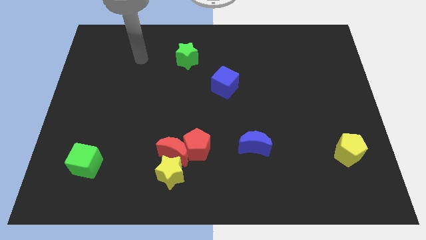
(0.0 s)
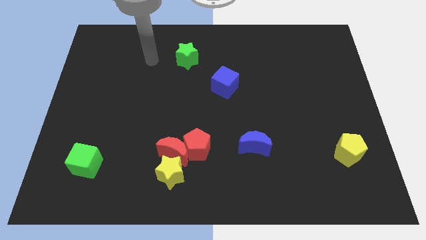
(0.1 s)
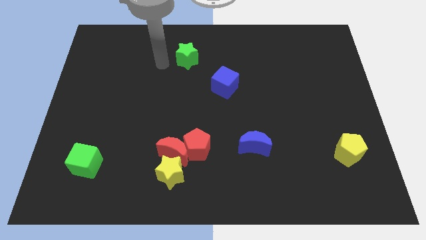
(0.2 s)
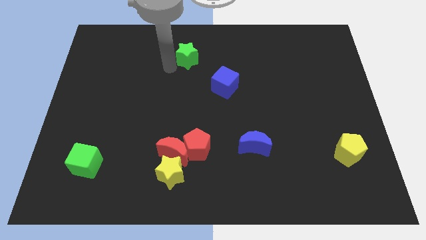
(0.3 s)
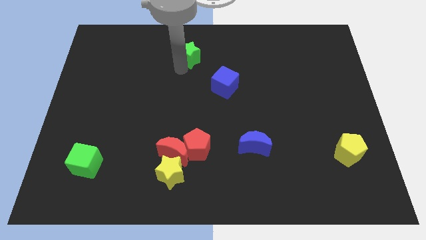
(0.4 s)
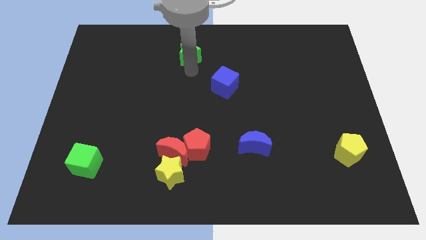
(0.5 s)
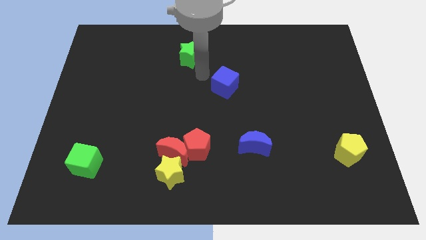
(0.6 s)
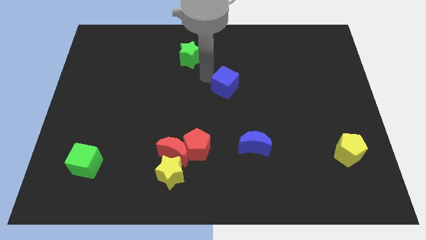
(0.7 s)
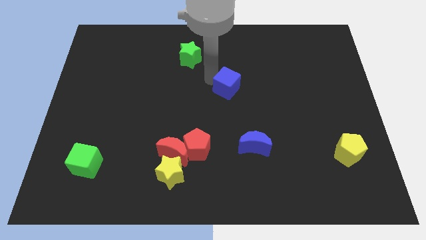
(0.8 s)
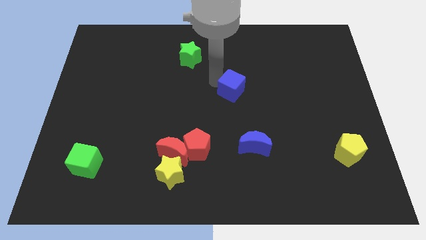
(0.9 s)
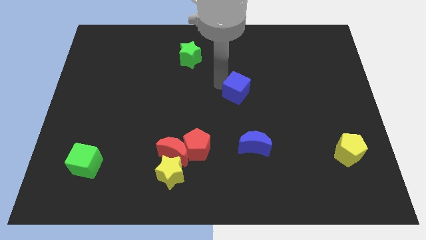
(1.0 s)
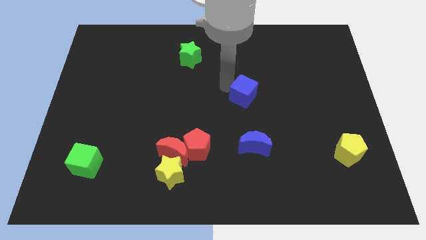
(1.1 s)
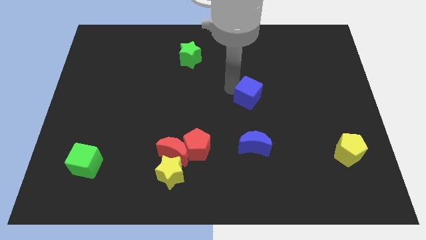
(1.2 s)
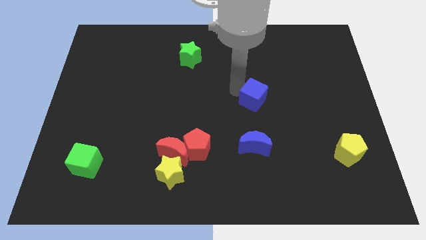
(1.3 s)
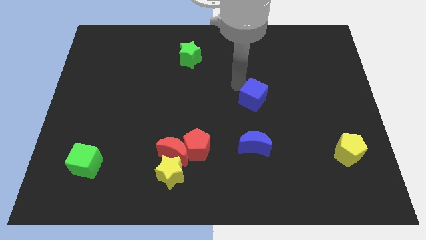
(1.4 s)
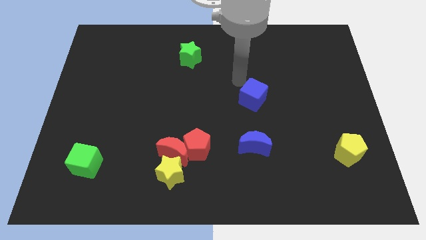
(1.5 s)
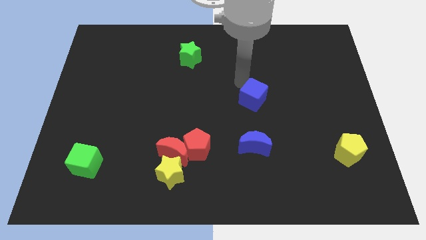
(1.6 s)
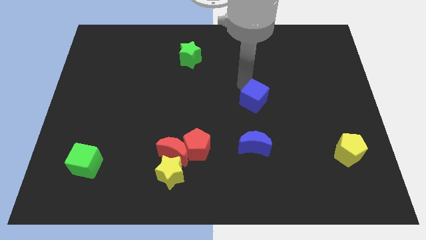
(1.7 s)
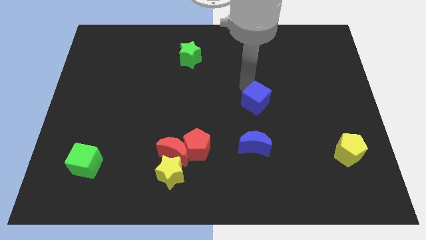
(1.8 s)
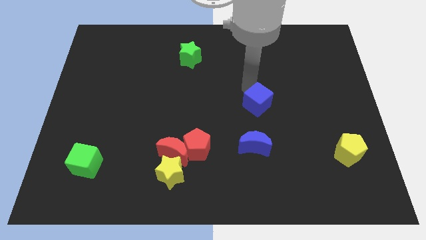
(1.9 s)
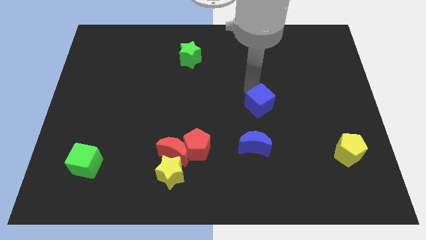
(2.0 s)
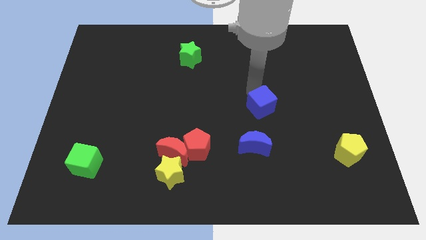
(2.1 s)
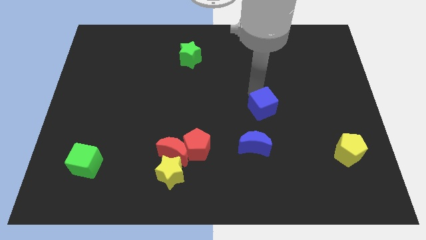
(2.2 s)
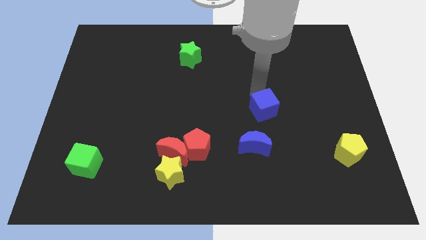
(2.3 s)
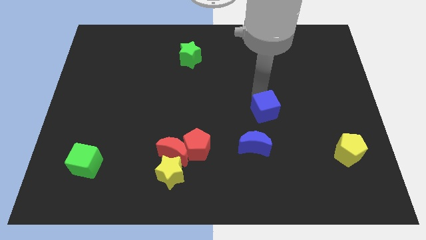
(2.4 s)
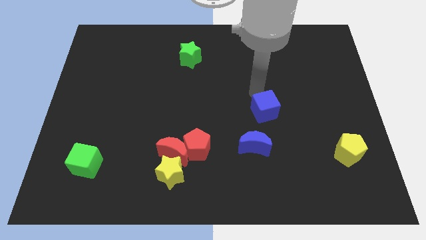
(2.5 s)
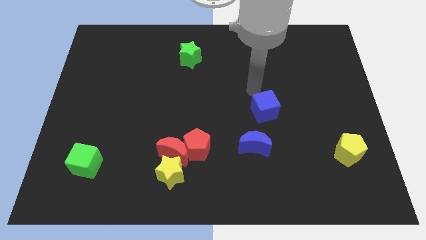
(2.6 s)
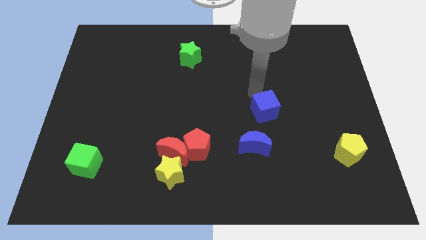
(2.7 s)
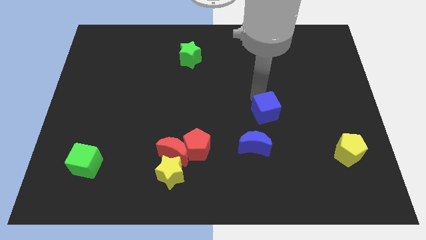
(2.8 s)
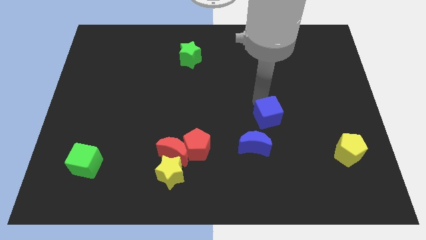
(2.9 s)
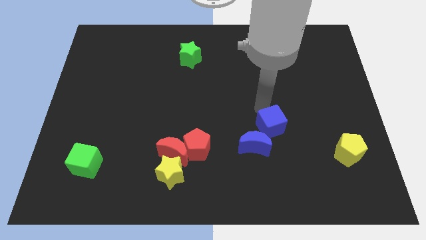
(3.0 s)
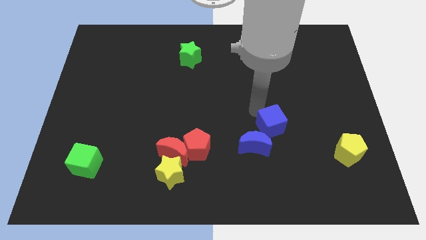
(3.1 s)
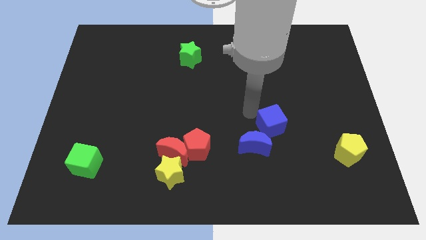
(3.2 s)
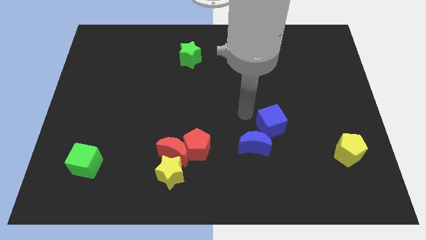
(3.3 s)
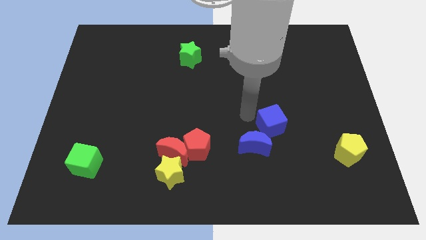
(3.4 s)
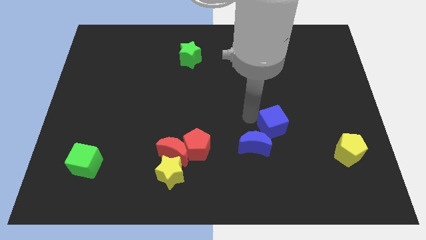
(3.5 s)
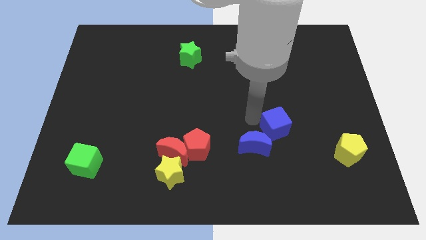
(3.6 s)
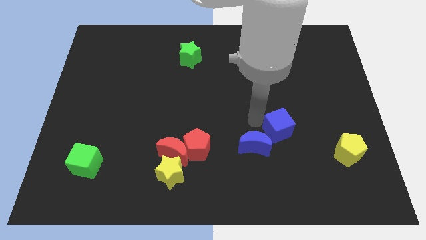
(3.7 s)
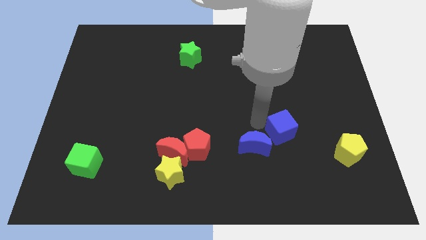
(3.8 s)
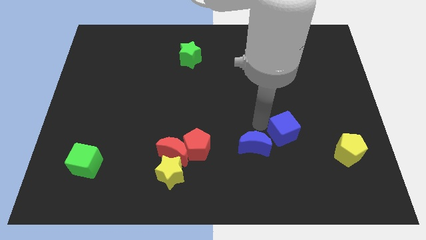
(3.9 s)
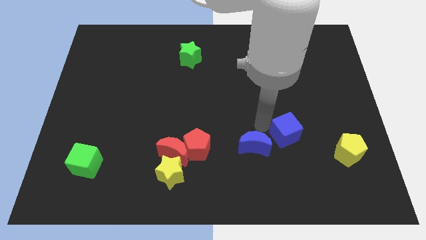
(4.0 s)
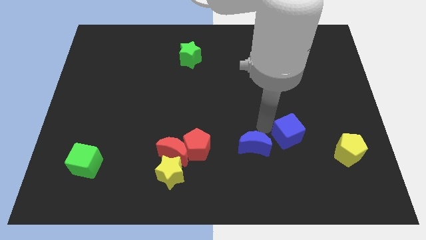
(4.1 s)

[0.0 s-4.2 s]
push the blue cube down and to the right diagonally

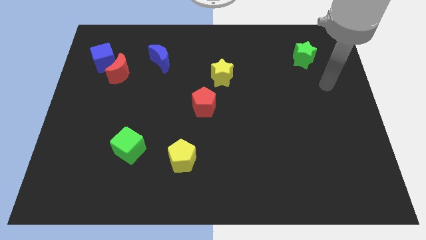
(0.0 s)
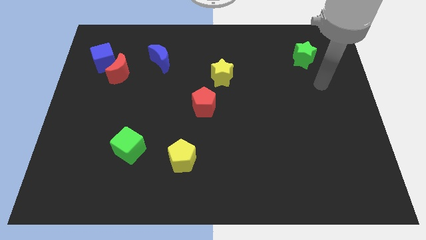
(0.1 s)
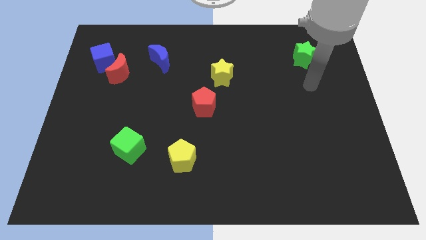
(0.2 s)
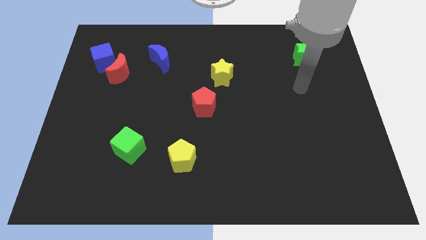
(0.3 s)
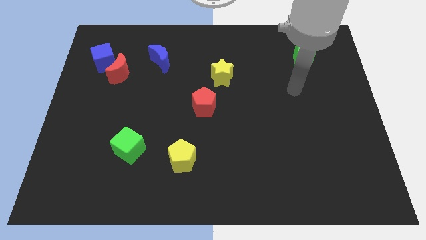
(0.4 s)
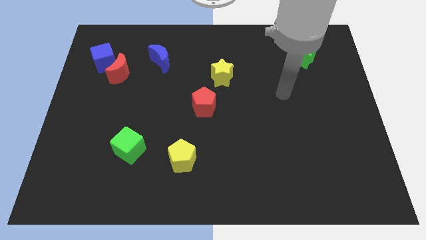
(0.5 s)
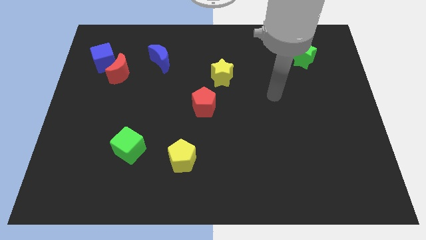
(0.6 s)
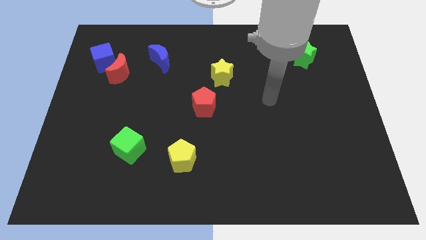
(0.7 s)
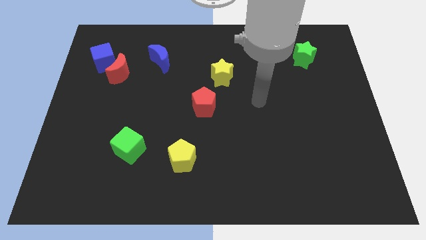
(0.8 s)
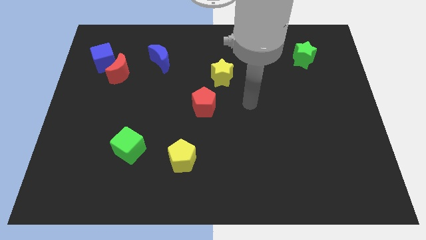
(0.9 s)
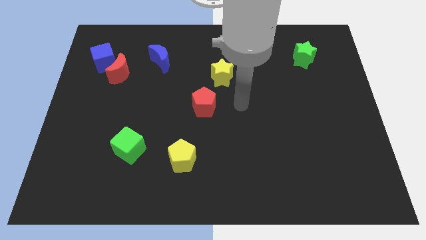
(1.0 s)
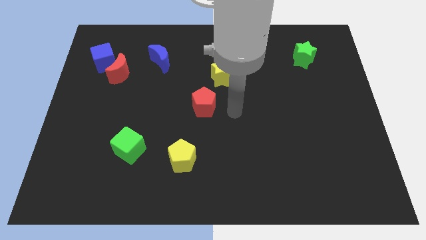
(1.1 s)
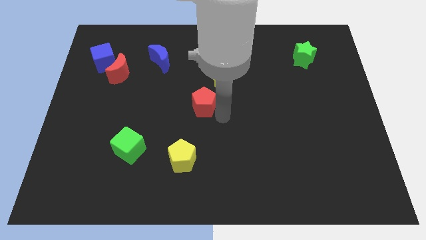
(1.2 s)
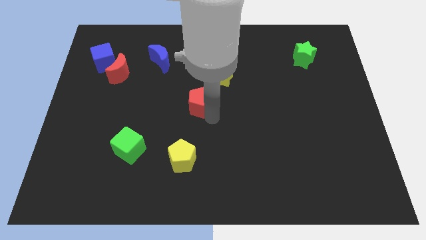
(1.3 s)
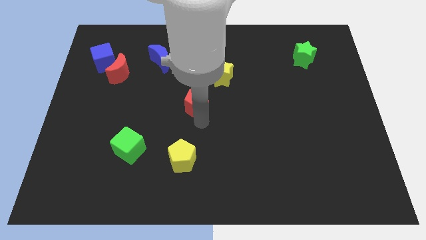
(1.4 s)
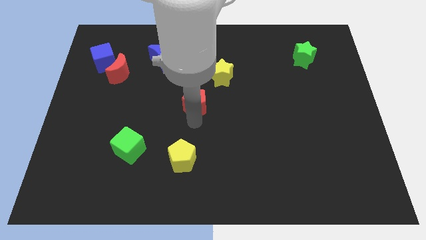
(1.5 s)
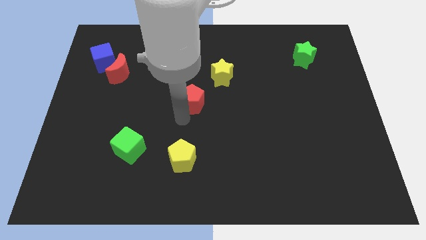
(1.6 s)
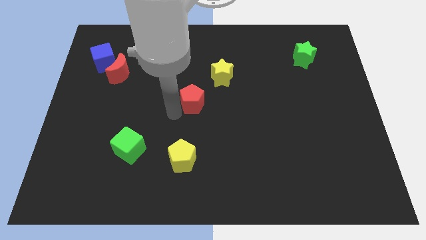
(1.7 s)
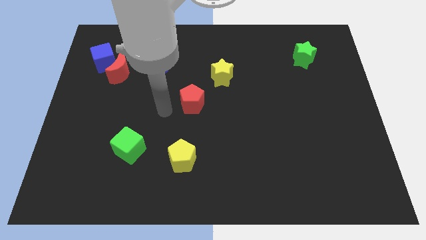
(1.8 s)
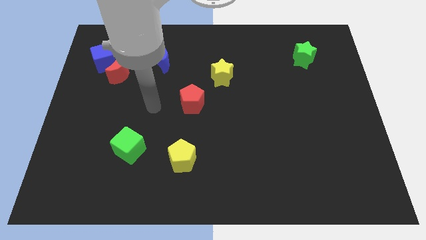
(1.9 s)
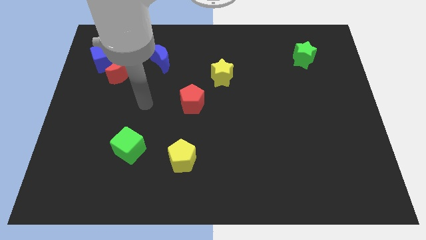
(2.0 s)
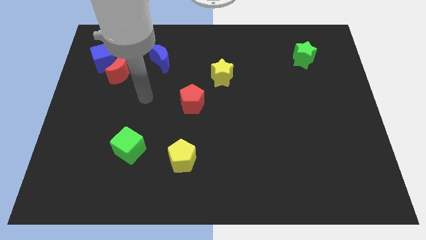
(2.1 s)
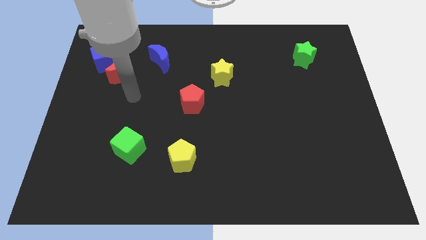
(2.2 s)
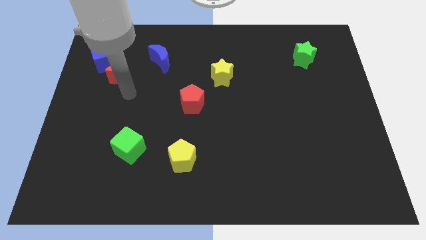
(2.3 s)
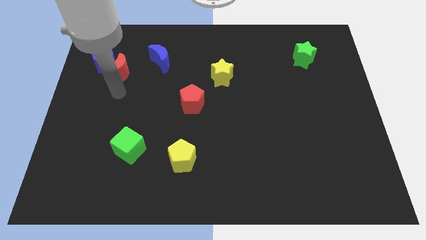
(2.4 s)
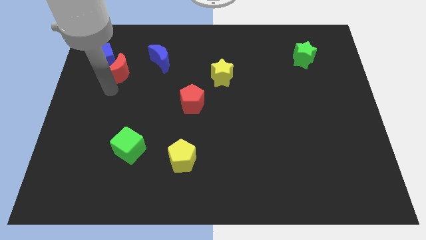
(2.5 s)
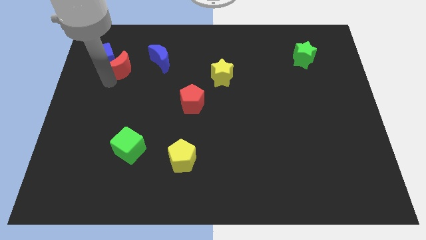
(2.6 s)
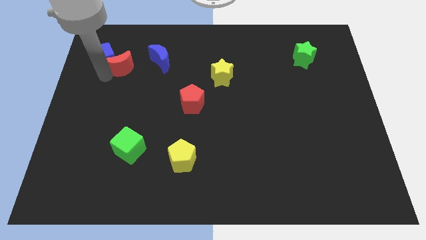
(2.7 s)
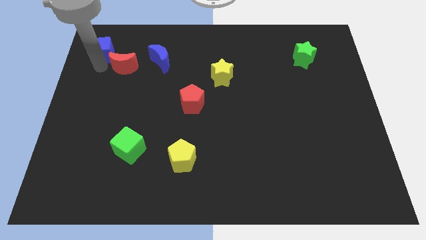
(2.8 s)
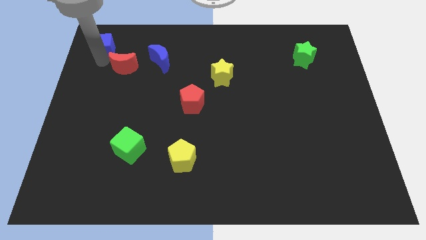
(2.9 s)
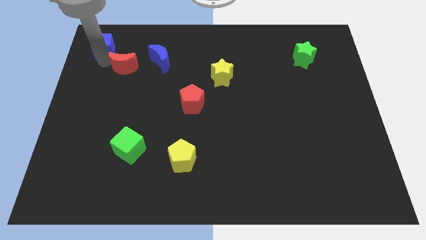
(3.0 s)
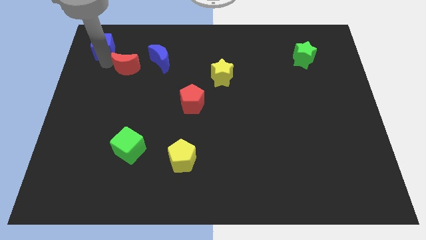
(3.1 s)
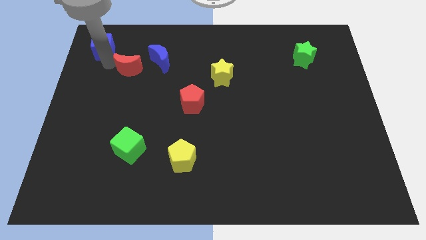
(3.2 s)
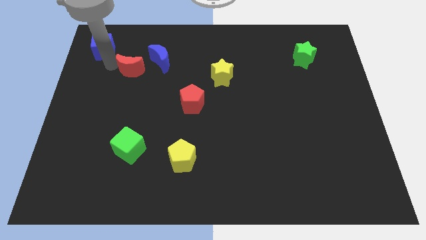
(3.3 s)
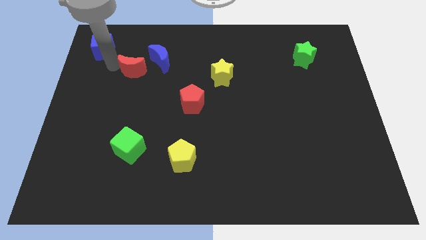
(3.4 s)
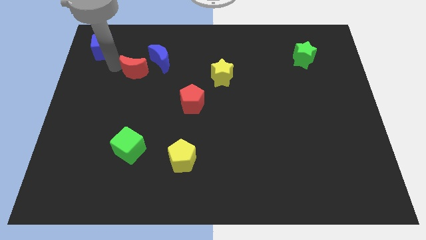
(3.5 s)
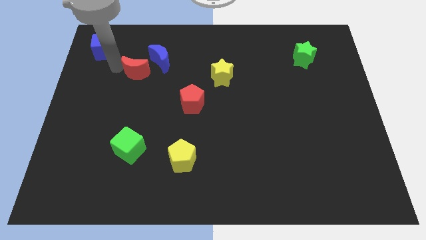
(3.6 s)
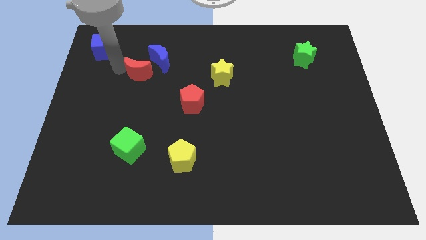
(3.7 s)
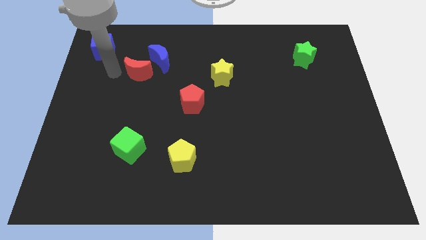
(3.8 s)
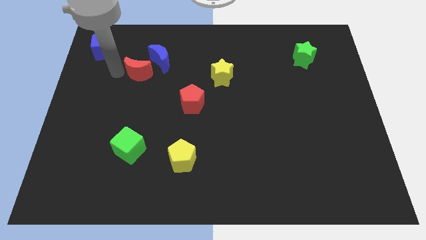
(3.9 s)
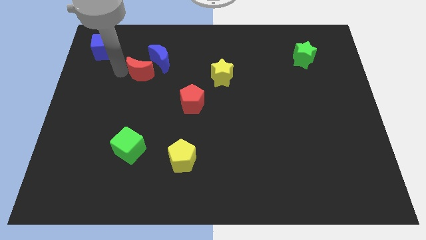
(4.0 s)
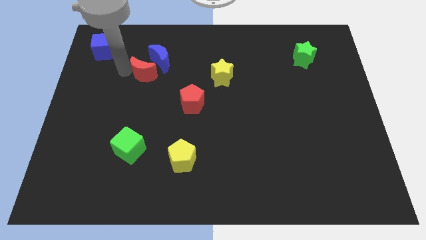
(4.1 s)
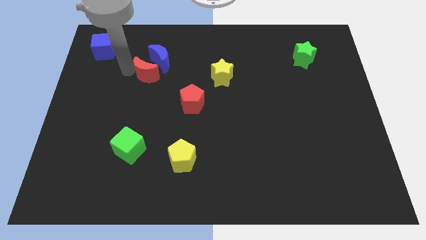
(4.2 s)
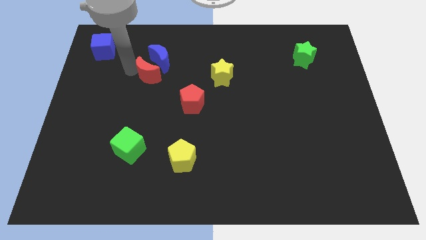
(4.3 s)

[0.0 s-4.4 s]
slightly move the red moon to the right
